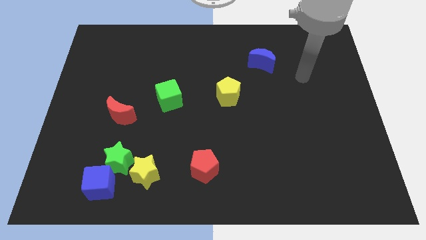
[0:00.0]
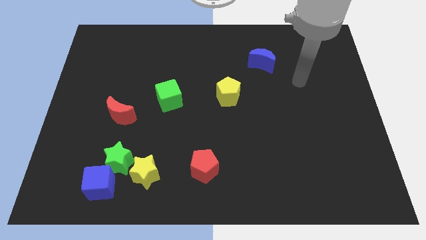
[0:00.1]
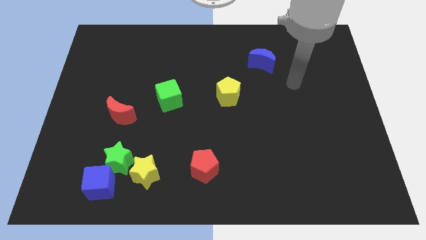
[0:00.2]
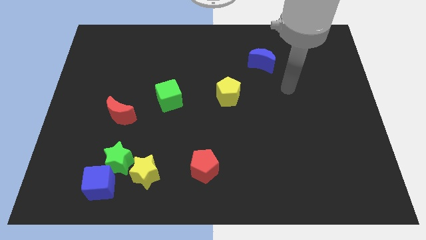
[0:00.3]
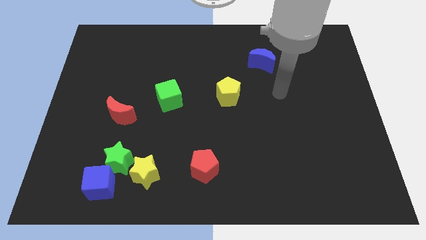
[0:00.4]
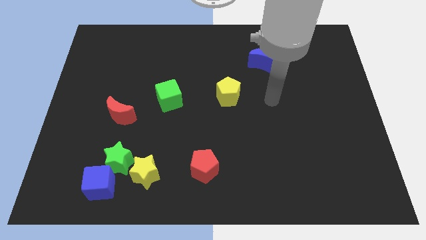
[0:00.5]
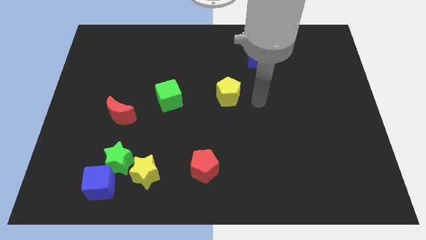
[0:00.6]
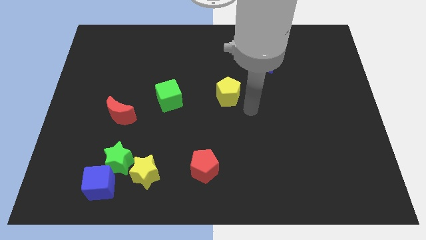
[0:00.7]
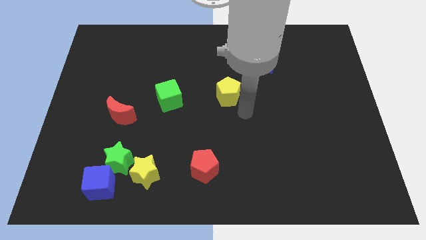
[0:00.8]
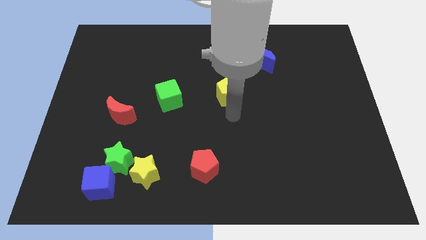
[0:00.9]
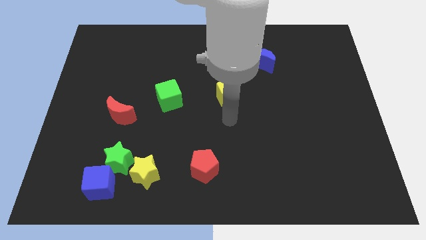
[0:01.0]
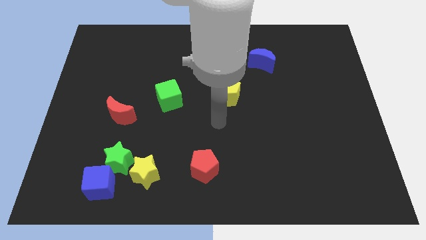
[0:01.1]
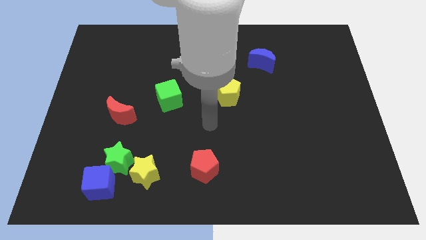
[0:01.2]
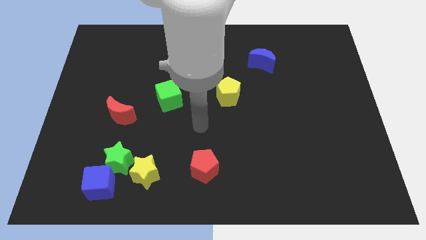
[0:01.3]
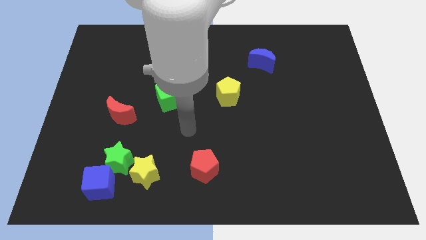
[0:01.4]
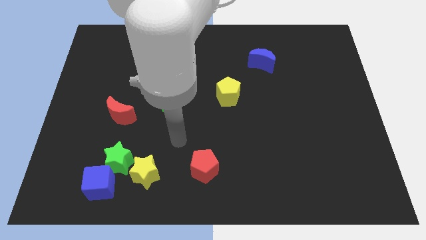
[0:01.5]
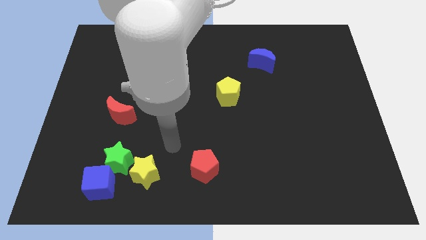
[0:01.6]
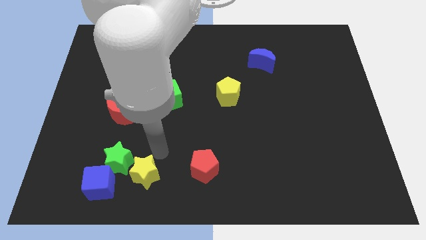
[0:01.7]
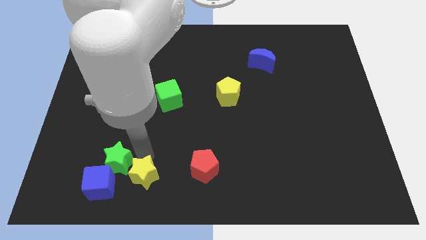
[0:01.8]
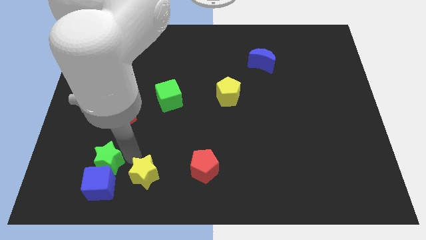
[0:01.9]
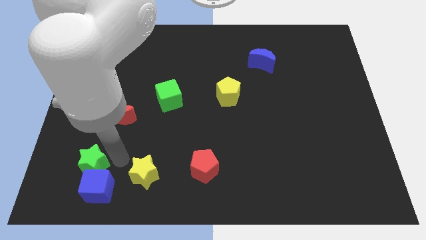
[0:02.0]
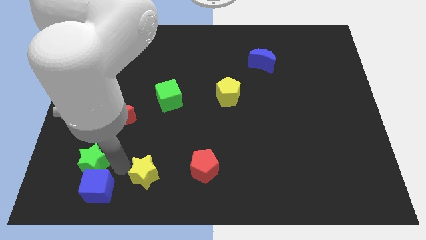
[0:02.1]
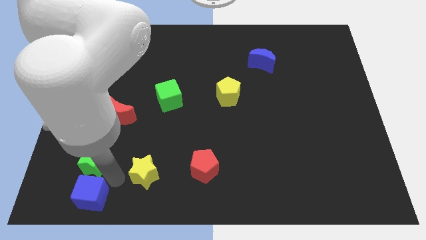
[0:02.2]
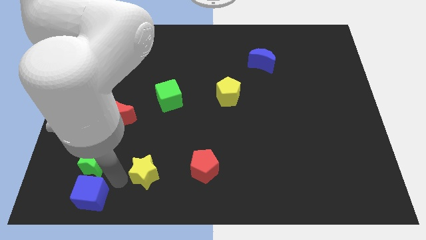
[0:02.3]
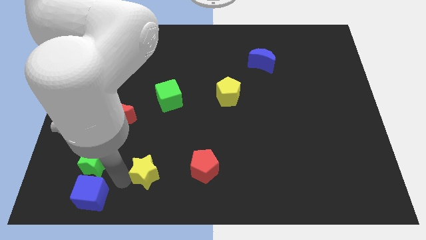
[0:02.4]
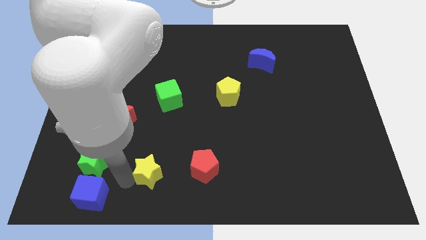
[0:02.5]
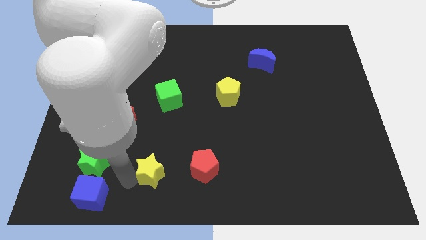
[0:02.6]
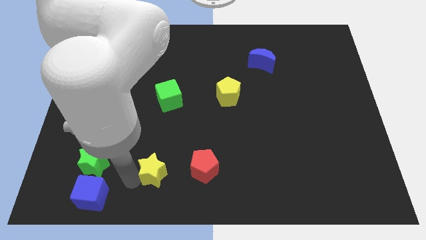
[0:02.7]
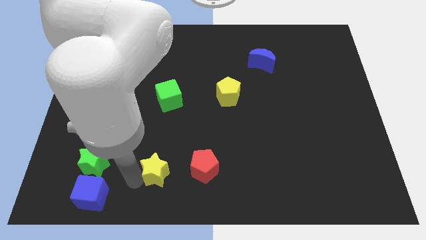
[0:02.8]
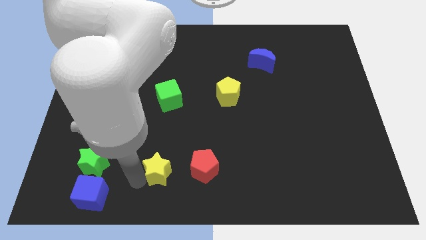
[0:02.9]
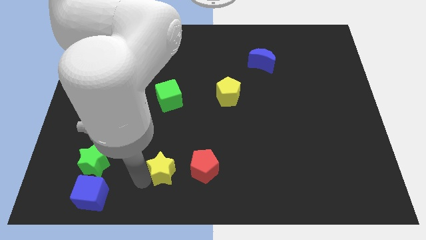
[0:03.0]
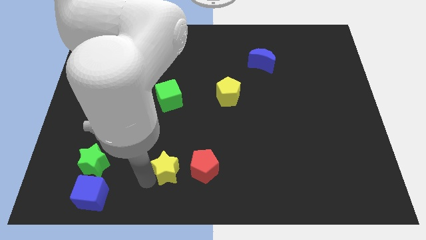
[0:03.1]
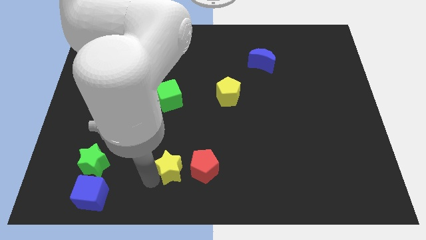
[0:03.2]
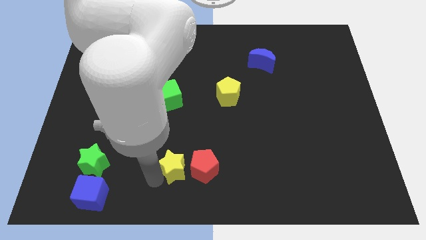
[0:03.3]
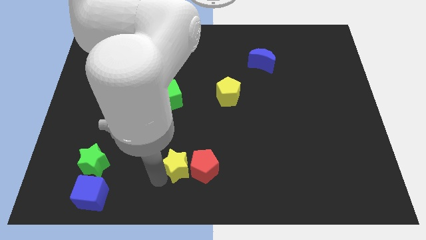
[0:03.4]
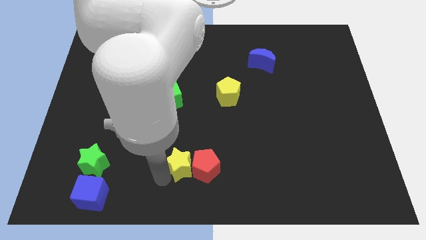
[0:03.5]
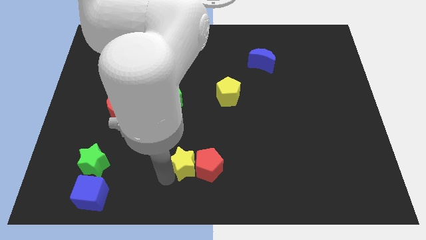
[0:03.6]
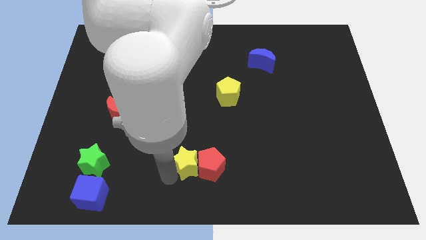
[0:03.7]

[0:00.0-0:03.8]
move the yellow star diagonally up and to the right a little

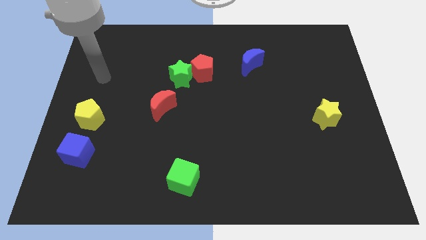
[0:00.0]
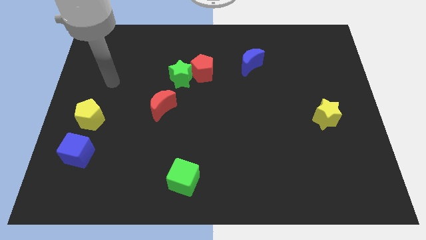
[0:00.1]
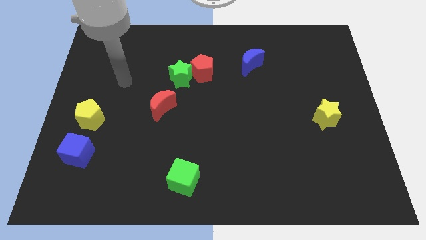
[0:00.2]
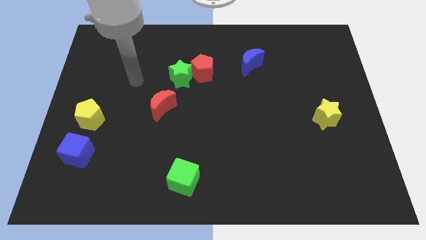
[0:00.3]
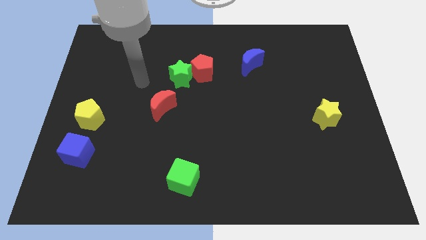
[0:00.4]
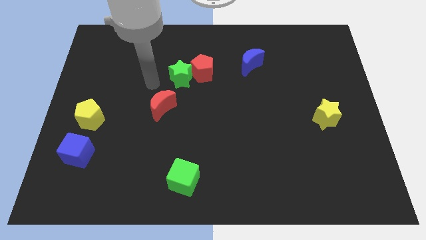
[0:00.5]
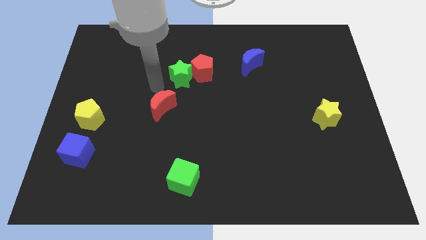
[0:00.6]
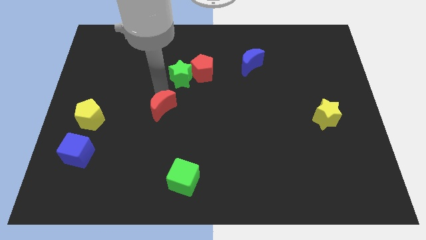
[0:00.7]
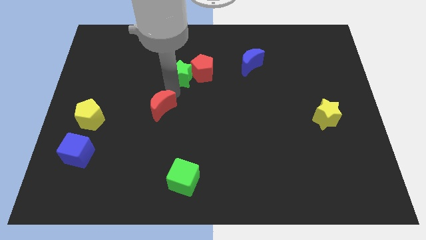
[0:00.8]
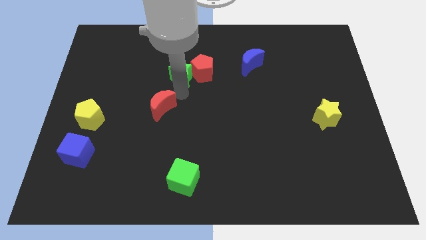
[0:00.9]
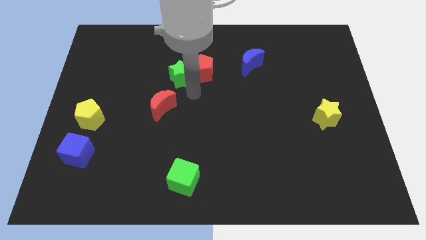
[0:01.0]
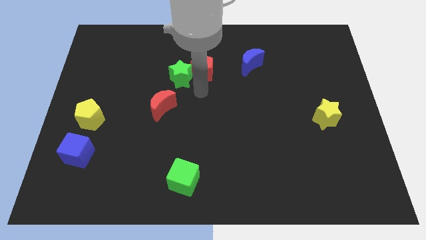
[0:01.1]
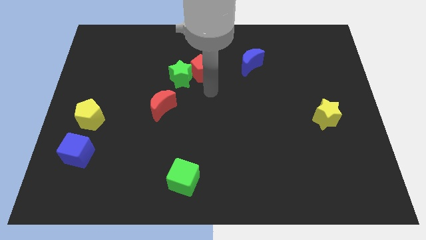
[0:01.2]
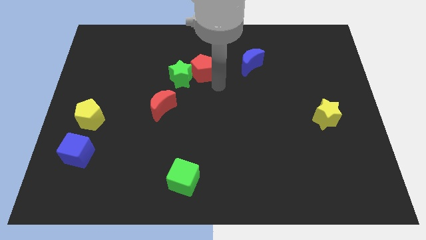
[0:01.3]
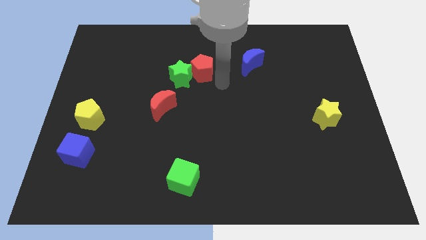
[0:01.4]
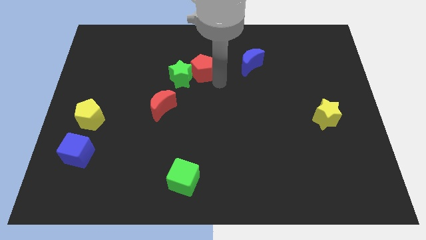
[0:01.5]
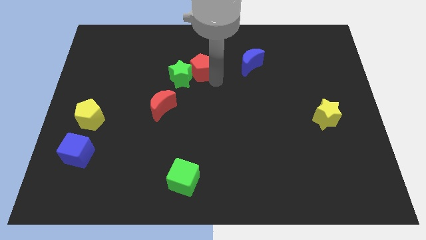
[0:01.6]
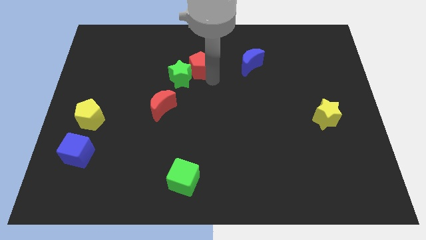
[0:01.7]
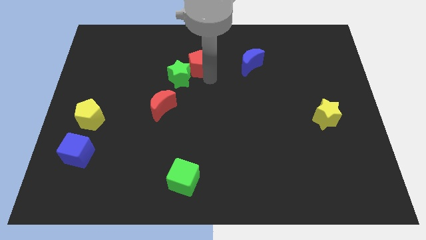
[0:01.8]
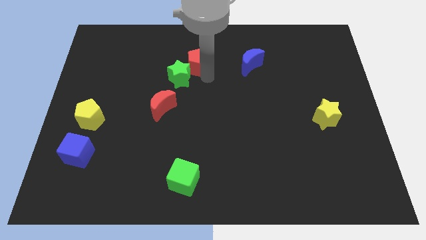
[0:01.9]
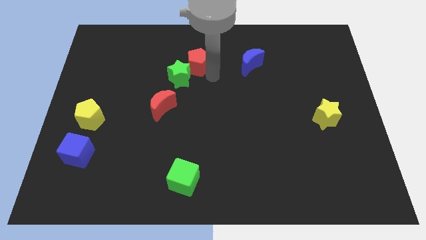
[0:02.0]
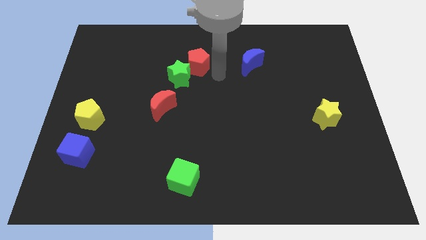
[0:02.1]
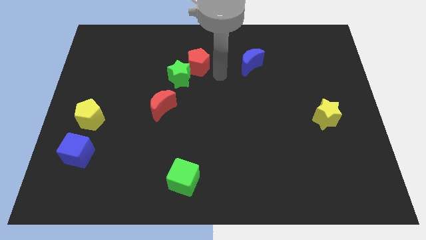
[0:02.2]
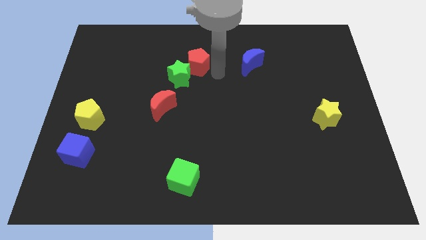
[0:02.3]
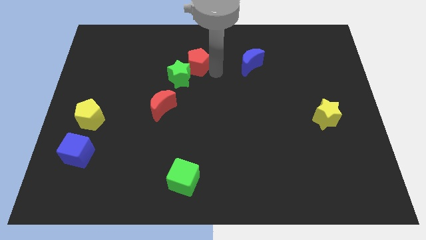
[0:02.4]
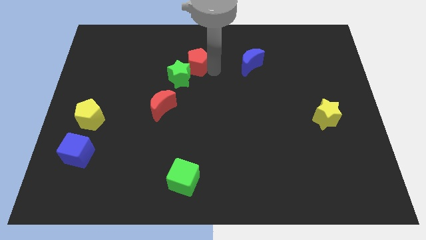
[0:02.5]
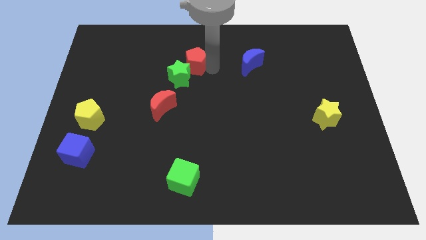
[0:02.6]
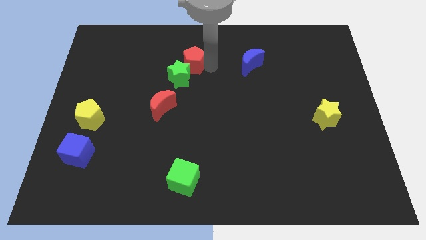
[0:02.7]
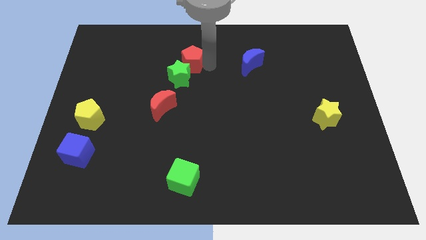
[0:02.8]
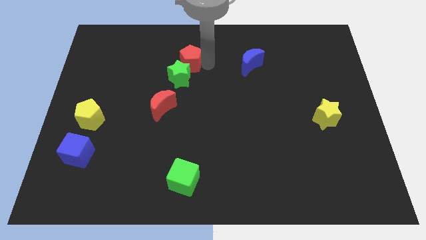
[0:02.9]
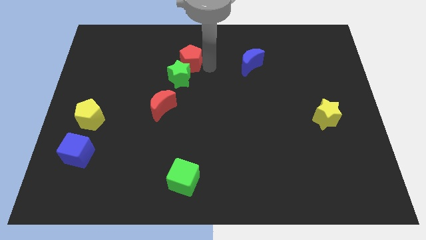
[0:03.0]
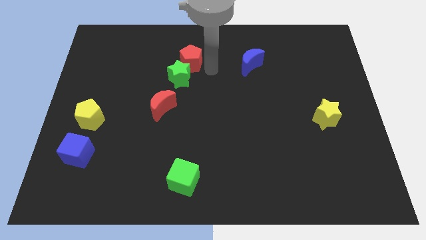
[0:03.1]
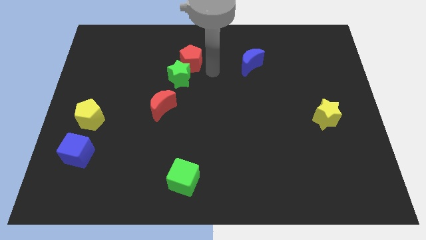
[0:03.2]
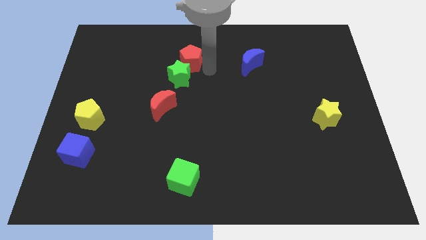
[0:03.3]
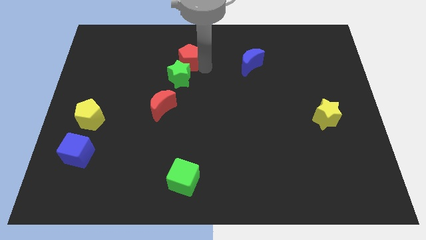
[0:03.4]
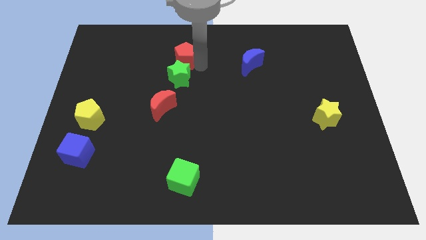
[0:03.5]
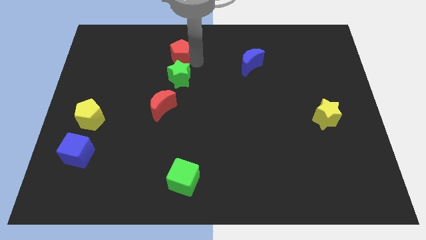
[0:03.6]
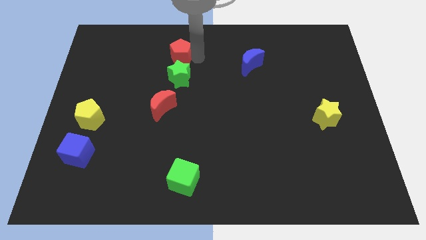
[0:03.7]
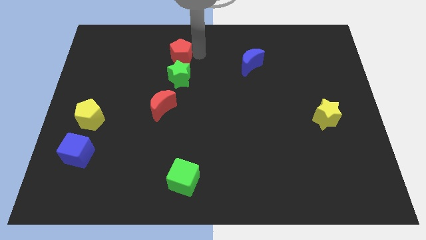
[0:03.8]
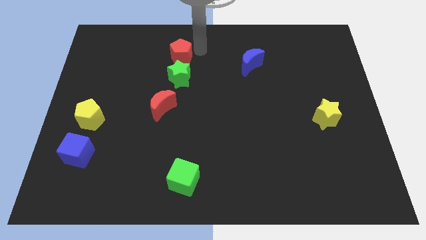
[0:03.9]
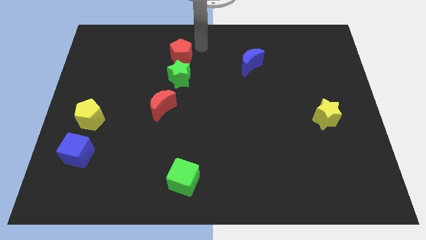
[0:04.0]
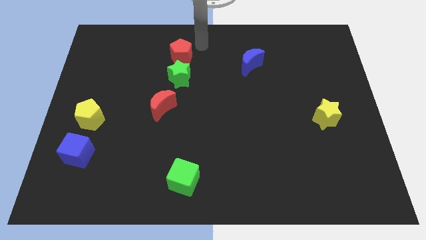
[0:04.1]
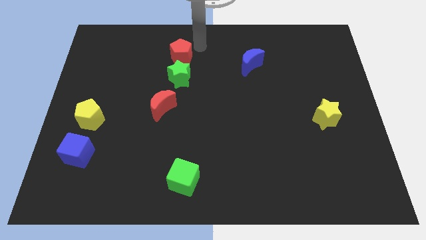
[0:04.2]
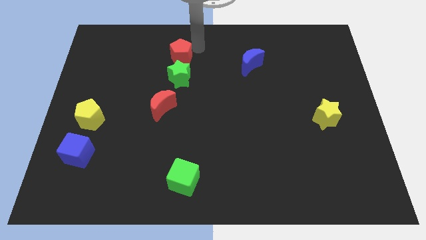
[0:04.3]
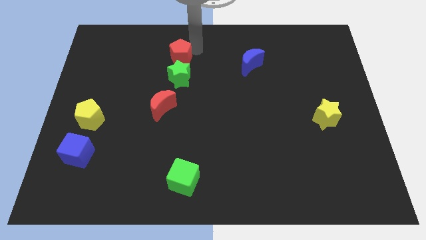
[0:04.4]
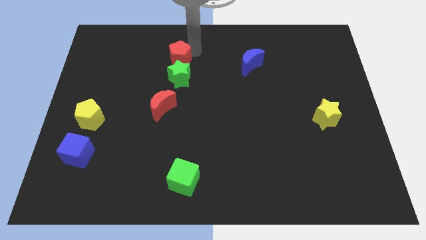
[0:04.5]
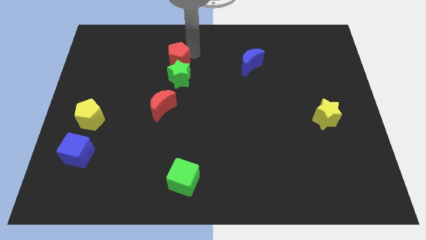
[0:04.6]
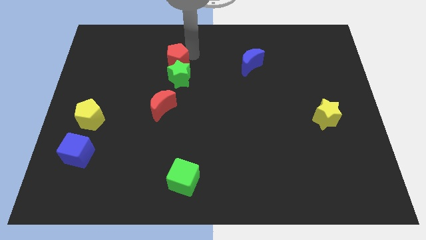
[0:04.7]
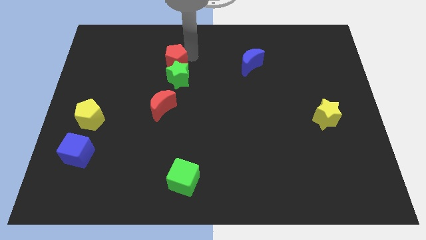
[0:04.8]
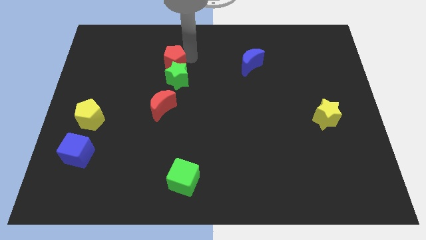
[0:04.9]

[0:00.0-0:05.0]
move the red pentagon slightly left
